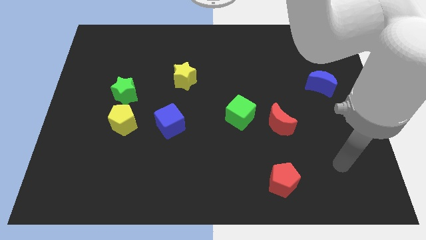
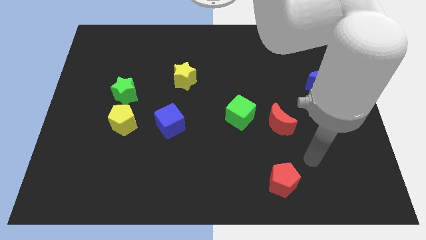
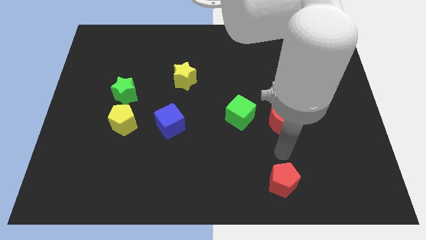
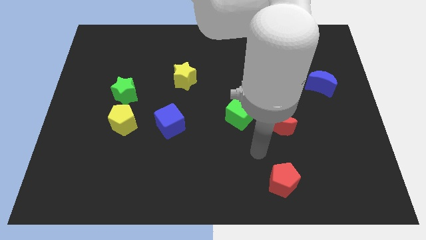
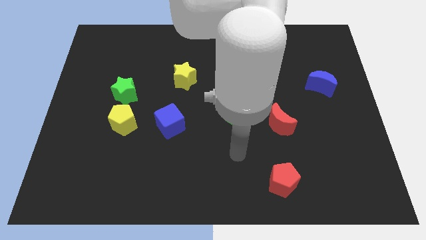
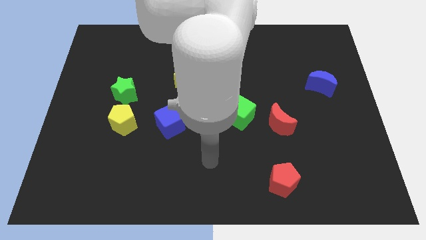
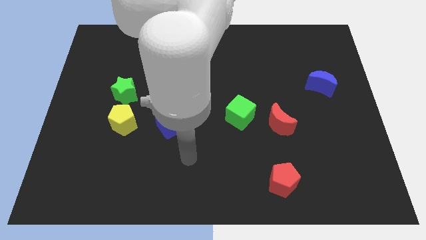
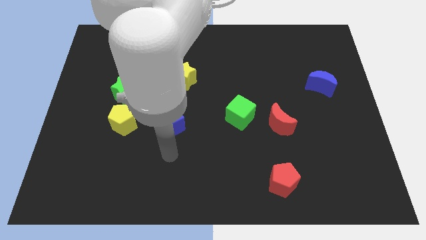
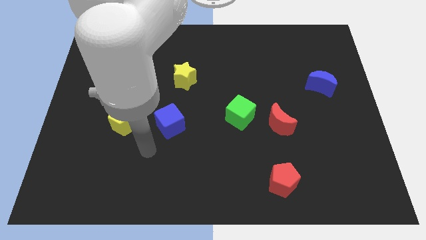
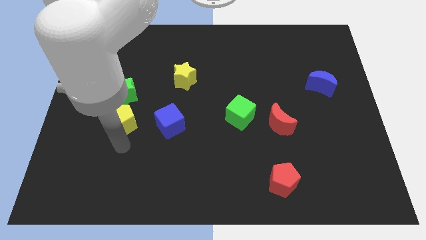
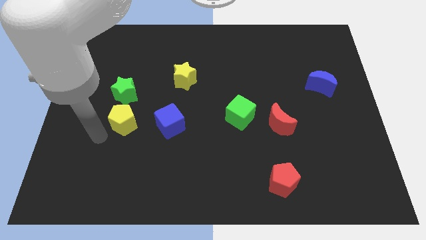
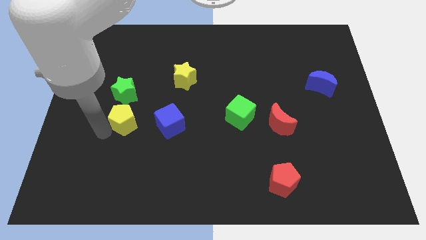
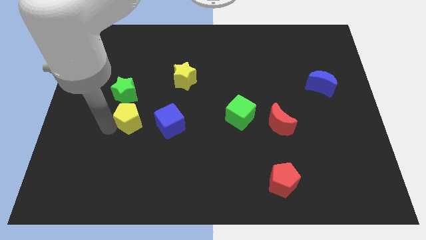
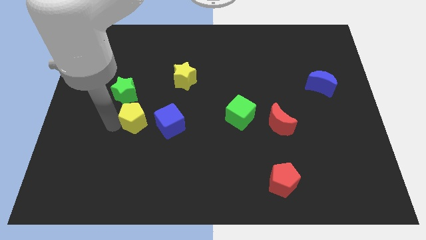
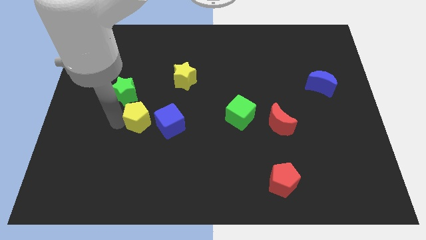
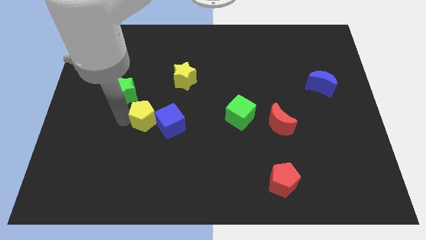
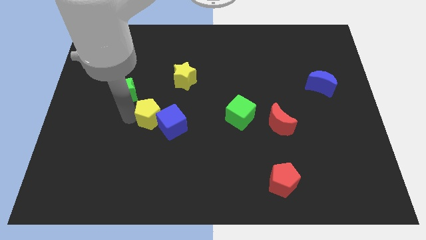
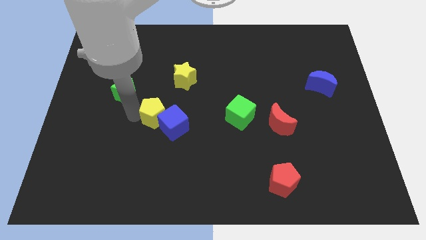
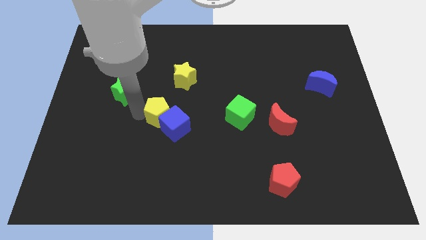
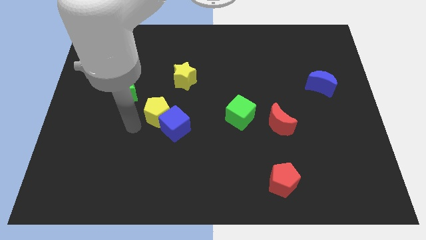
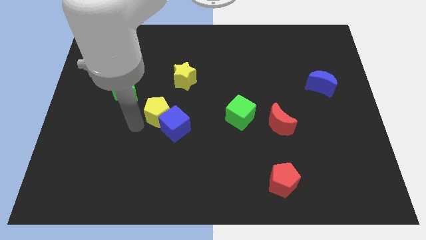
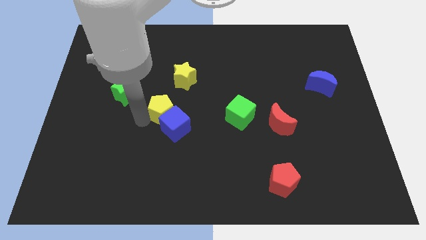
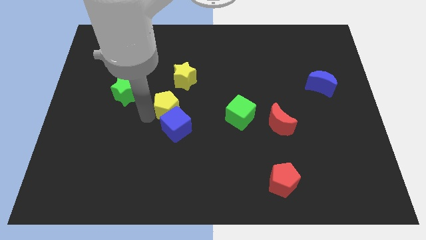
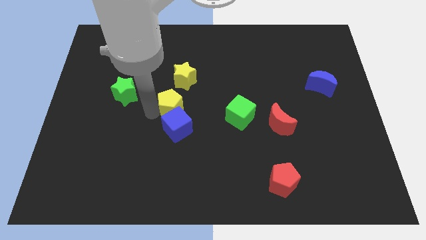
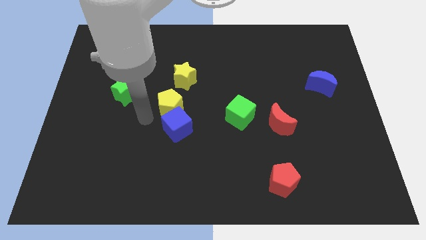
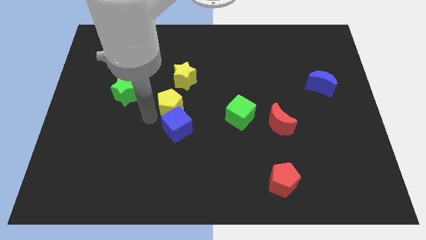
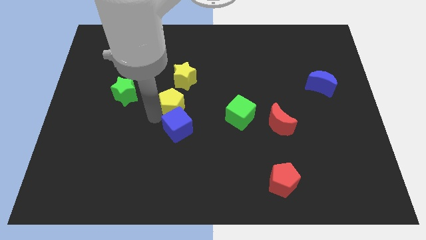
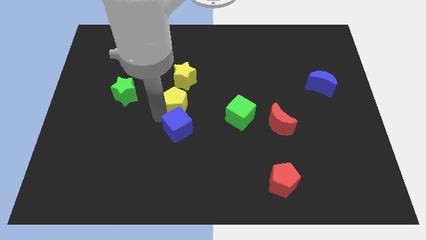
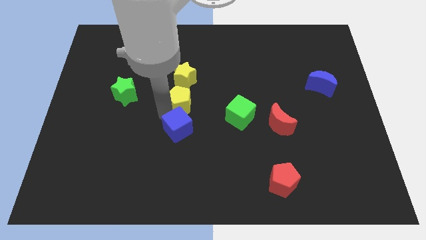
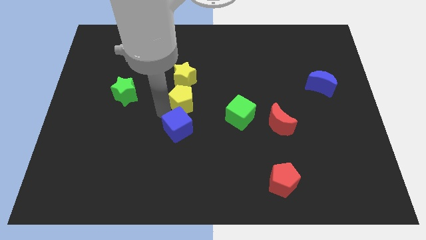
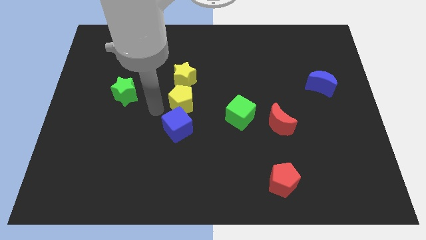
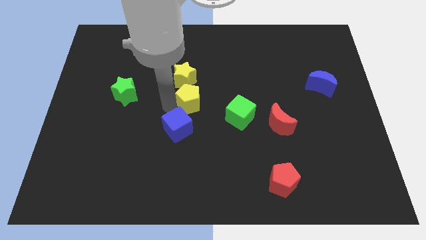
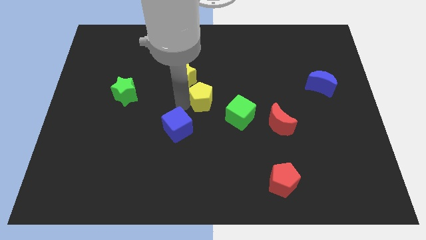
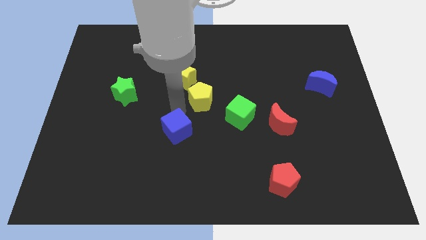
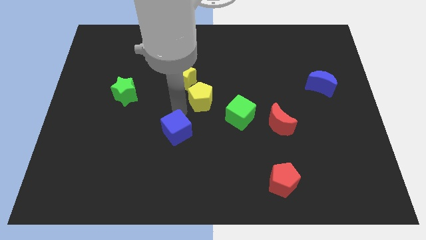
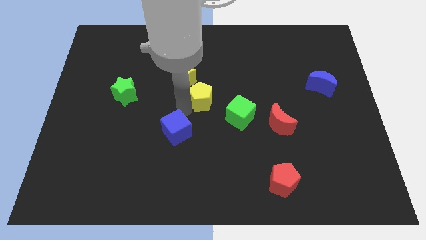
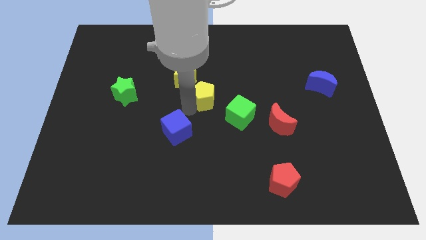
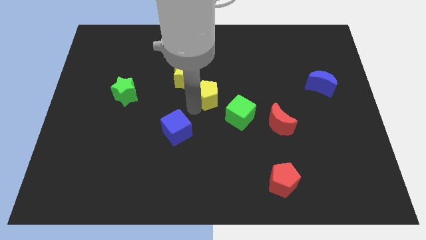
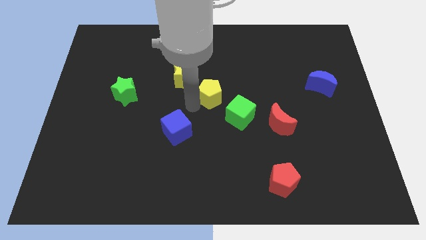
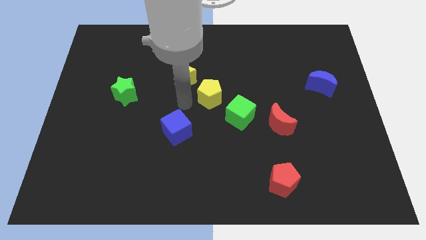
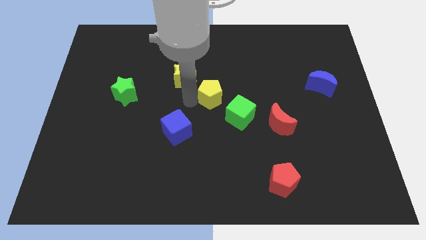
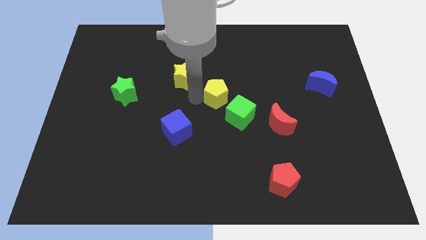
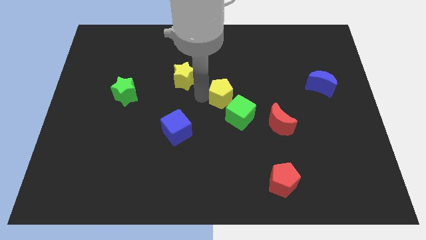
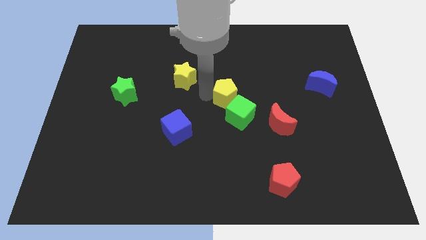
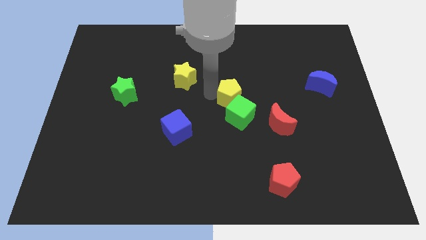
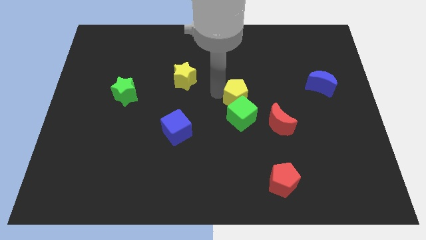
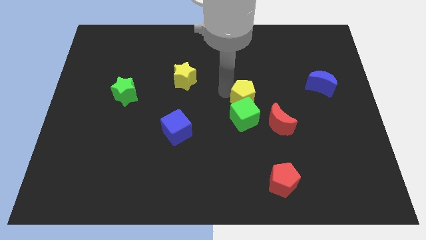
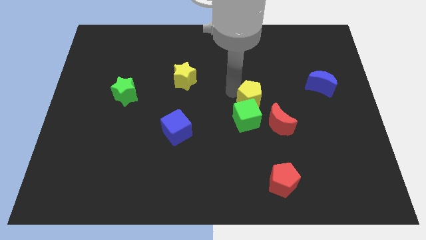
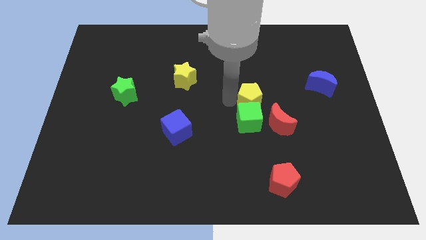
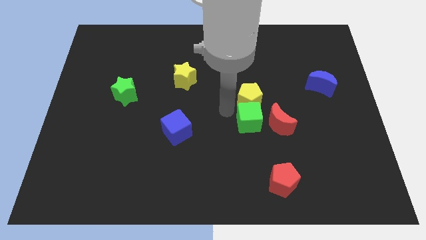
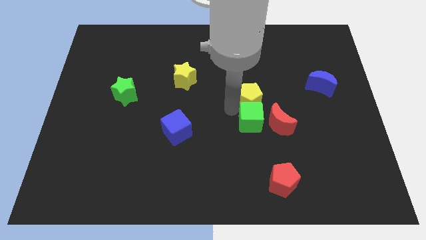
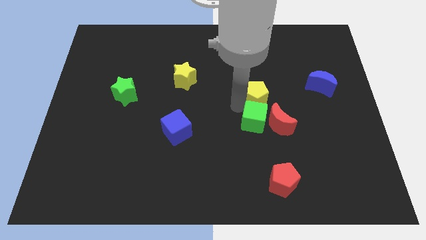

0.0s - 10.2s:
push the yellow pentagon above the red moon

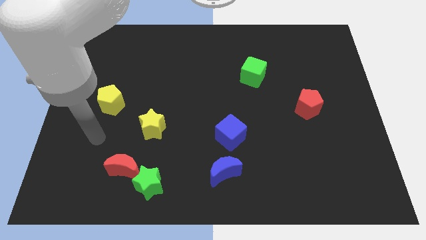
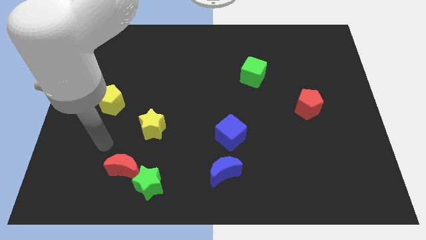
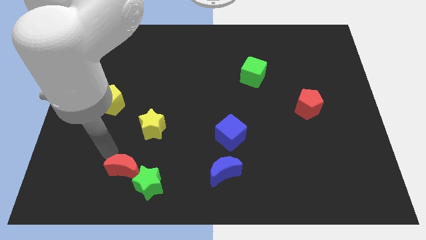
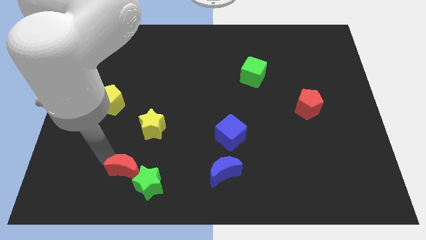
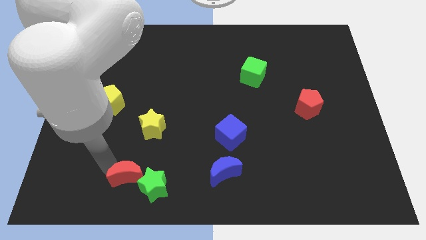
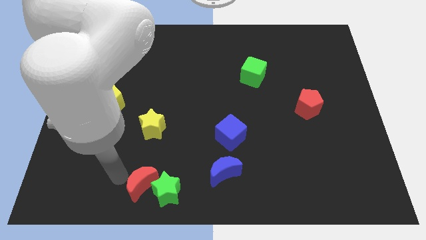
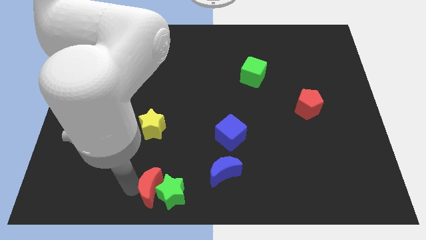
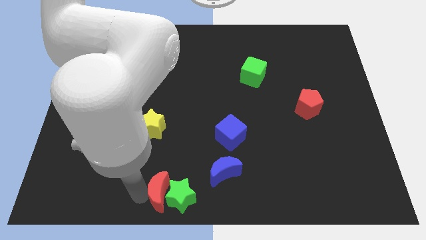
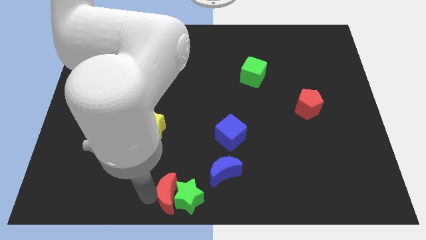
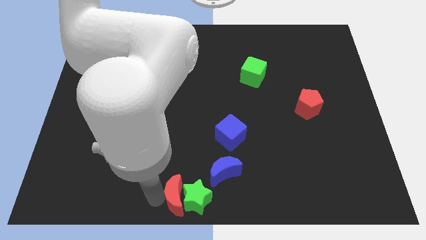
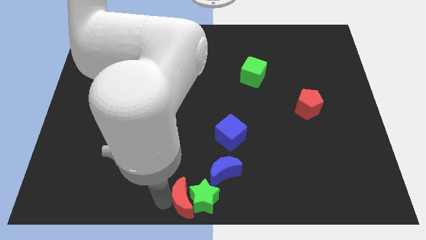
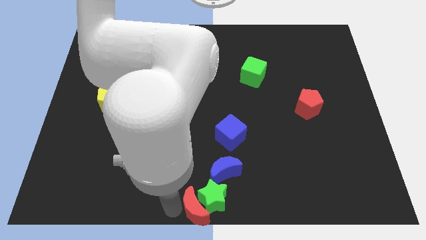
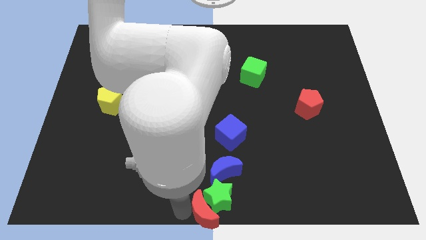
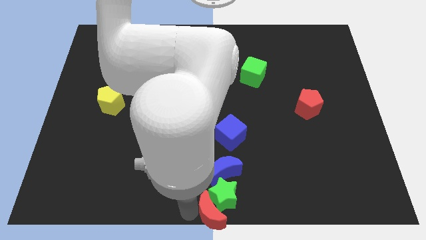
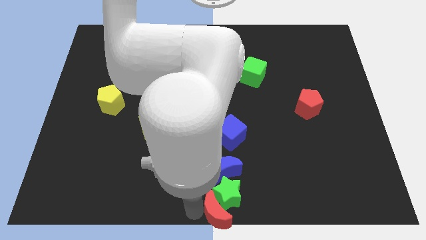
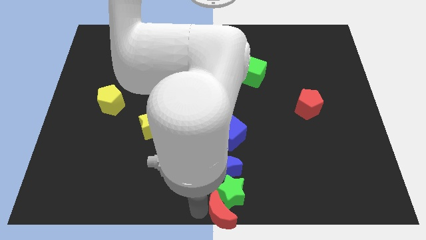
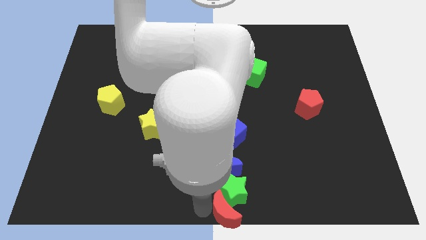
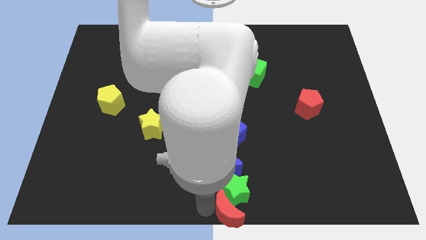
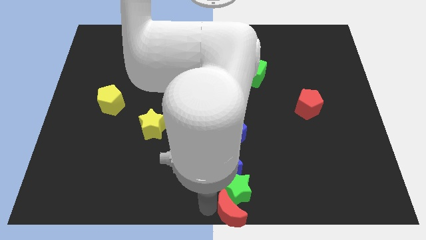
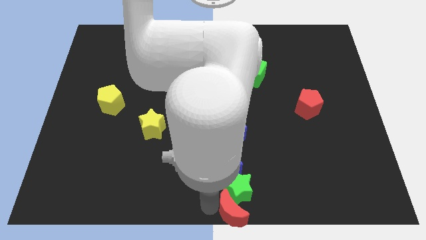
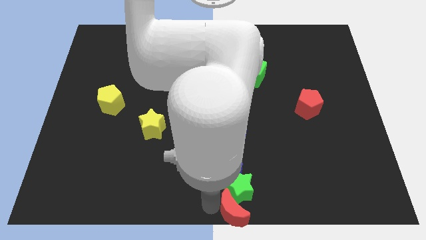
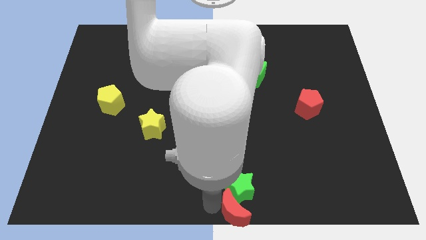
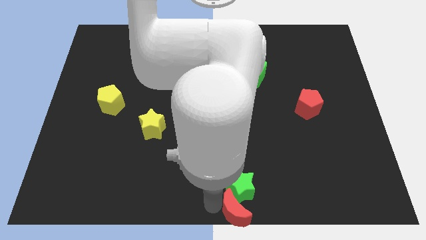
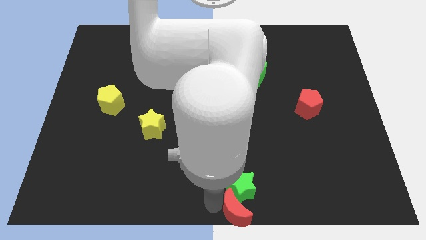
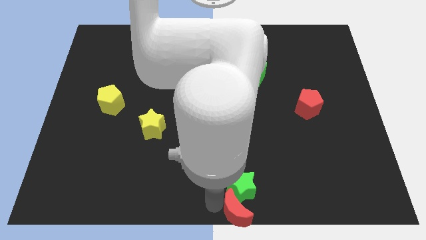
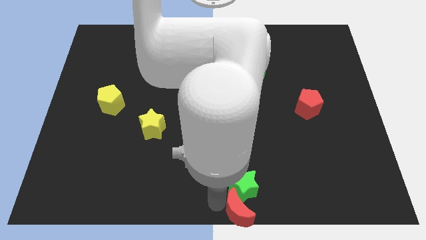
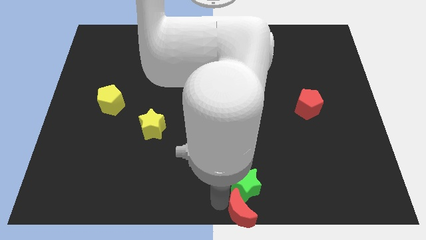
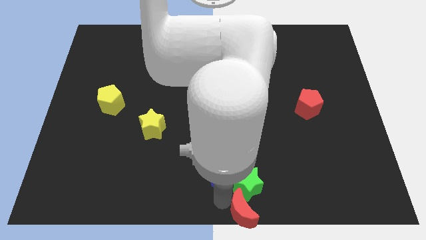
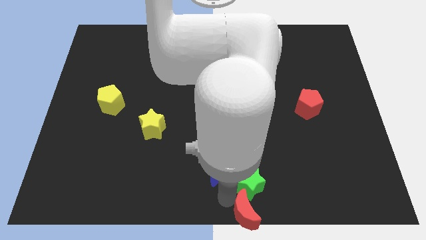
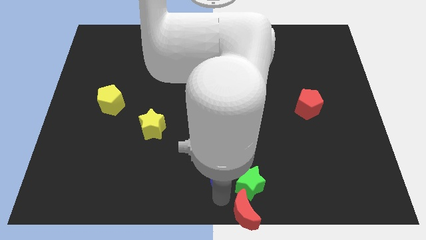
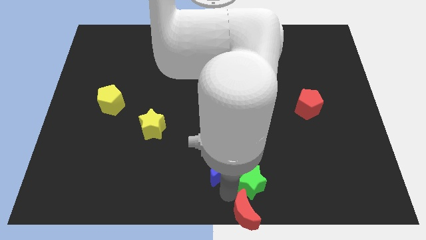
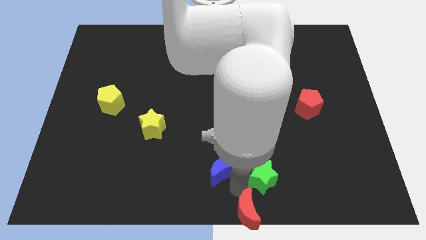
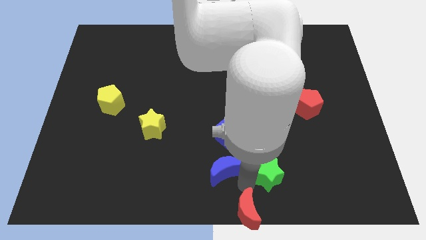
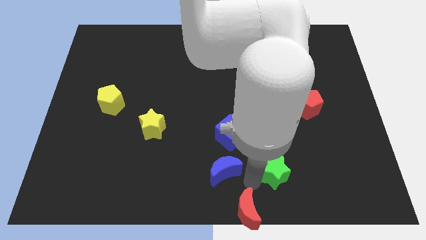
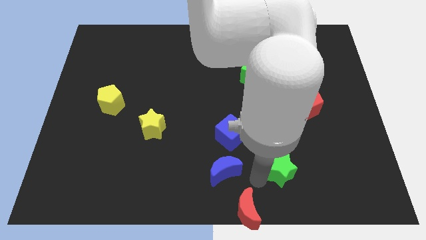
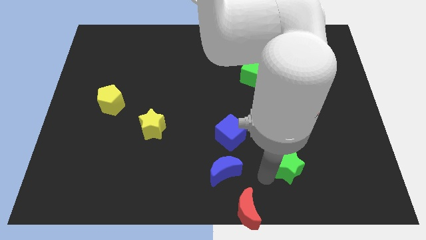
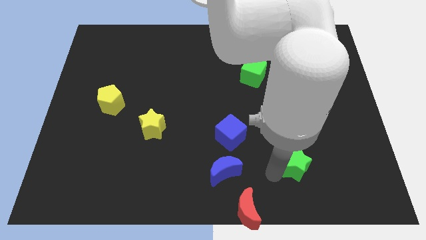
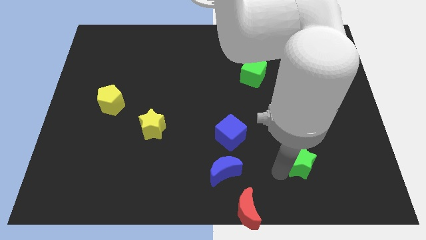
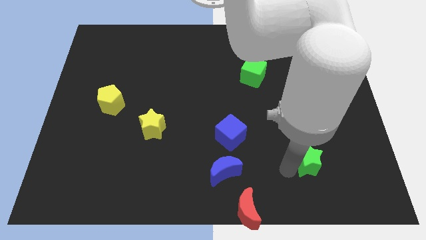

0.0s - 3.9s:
push the green star below the red pentagon
